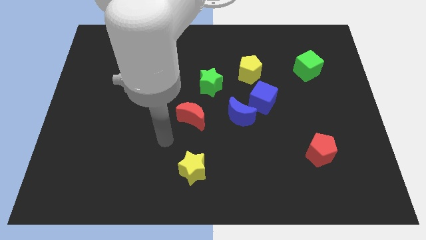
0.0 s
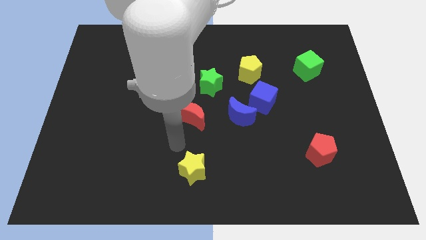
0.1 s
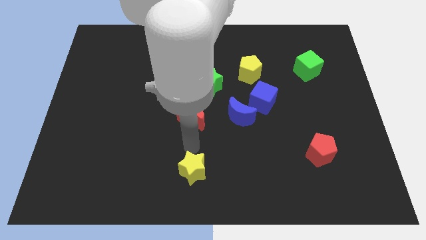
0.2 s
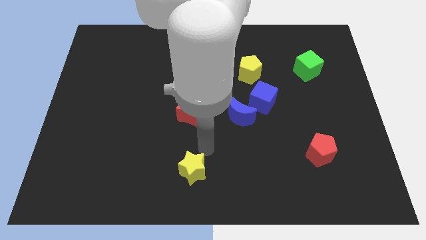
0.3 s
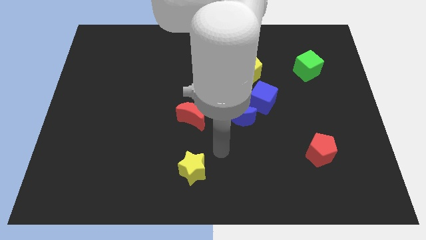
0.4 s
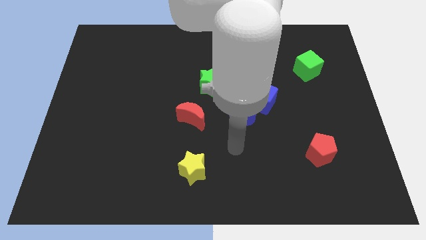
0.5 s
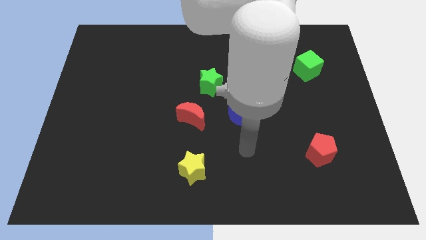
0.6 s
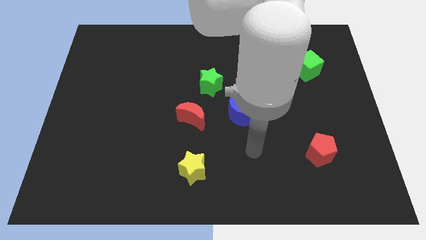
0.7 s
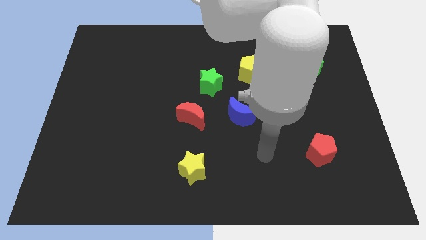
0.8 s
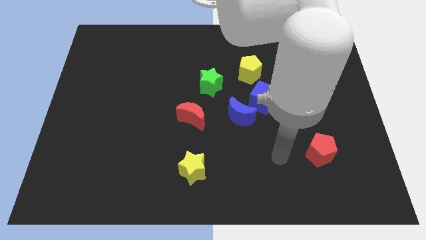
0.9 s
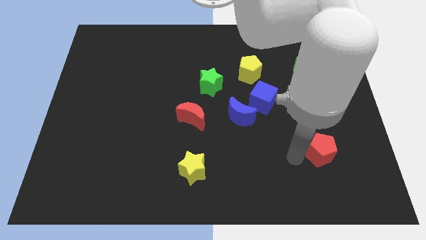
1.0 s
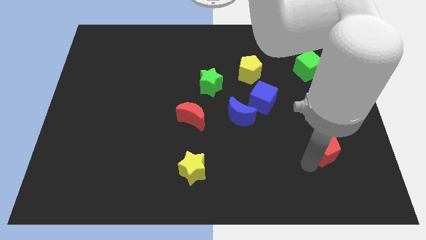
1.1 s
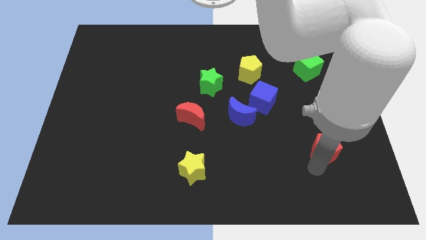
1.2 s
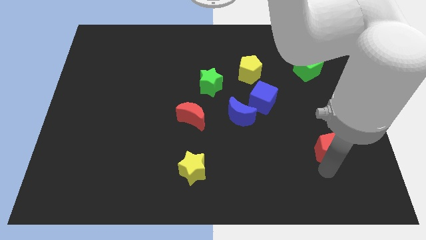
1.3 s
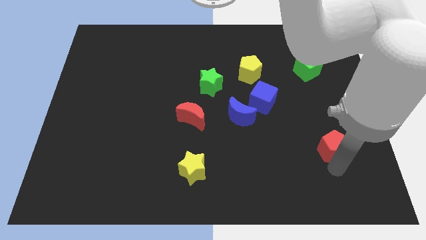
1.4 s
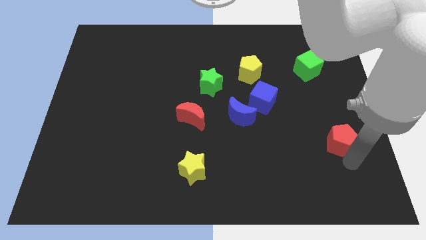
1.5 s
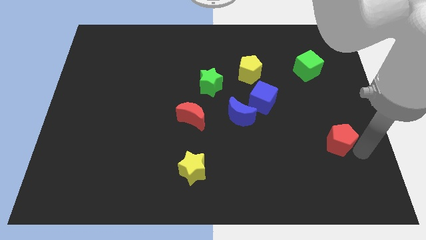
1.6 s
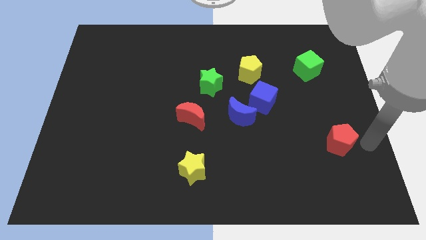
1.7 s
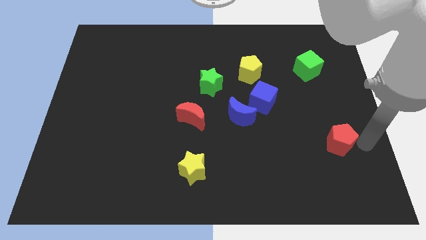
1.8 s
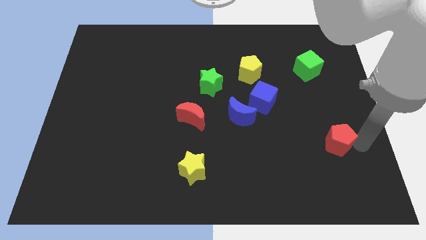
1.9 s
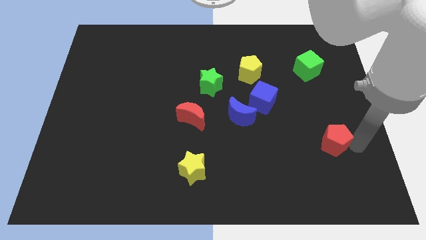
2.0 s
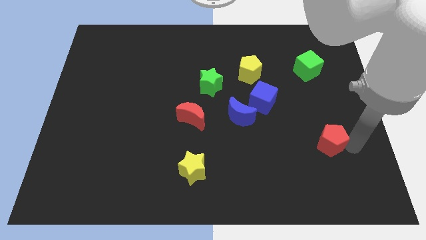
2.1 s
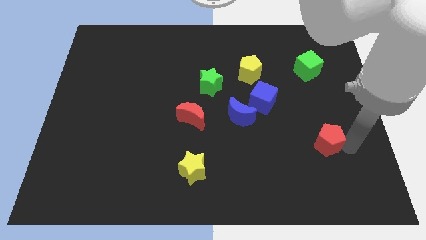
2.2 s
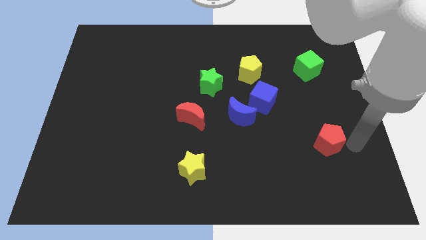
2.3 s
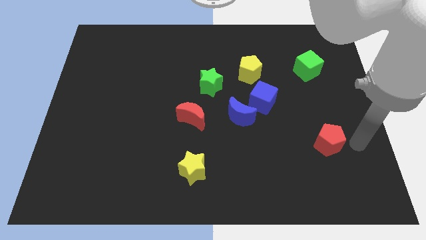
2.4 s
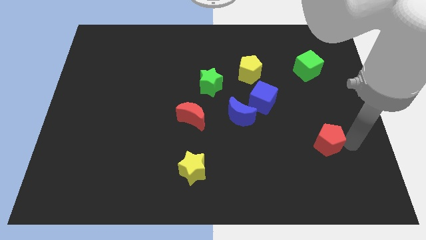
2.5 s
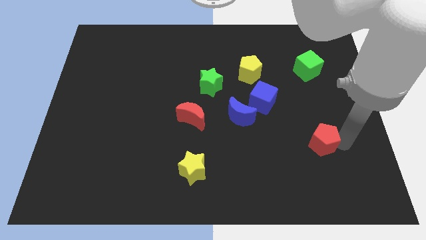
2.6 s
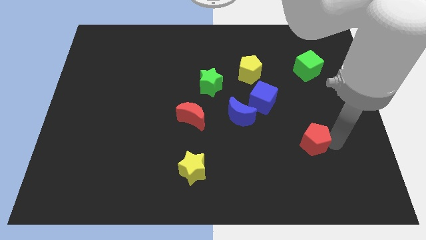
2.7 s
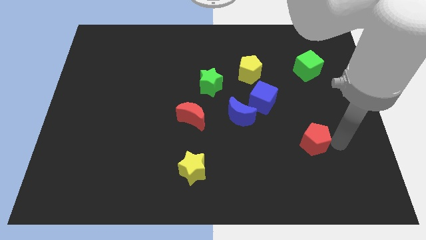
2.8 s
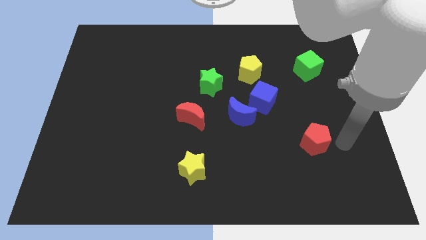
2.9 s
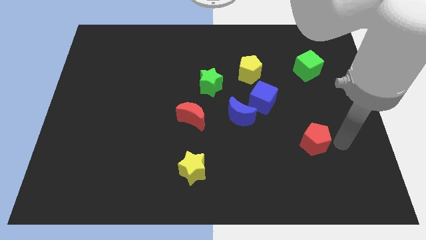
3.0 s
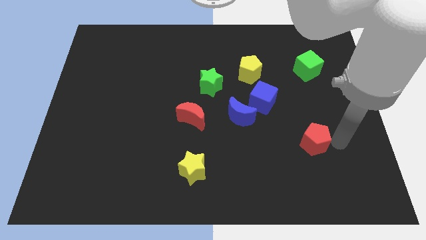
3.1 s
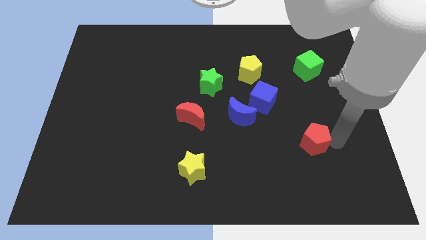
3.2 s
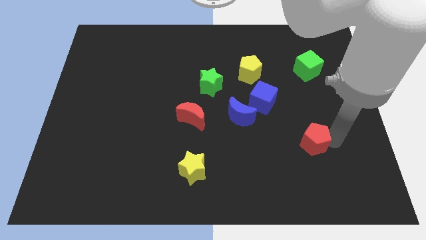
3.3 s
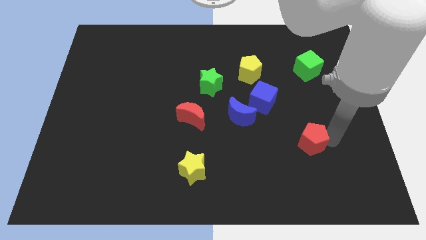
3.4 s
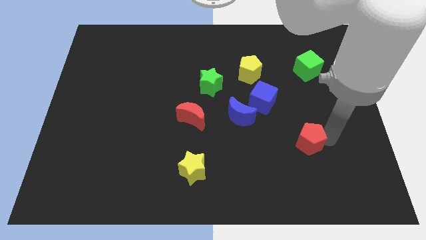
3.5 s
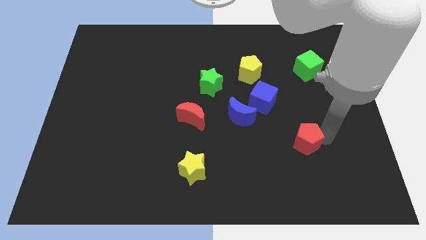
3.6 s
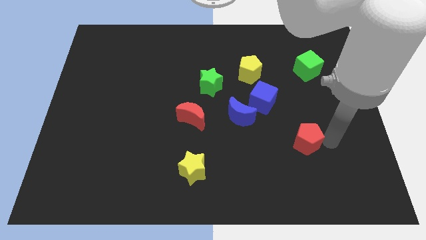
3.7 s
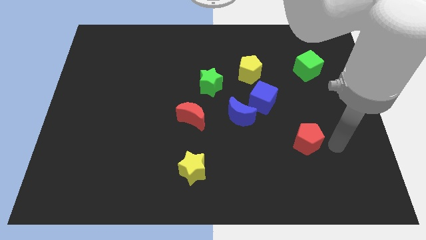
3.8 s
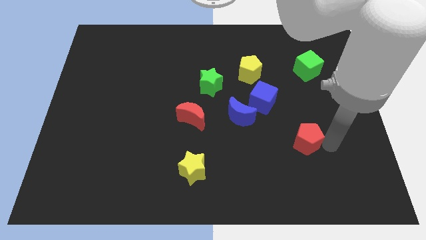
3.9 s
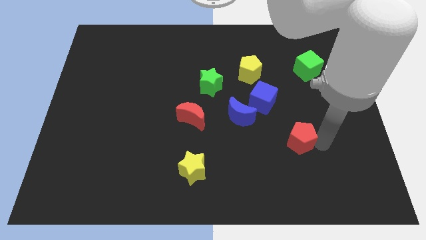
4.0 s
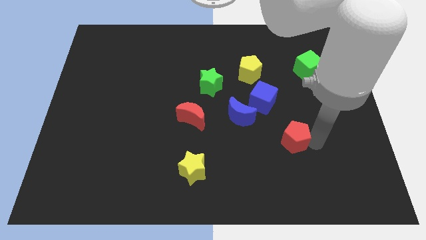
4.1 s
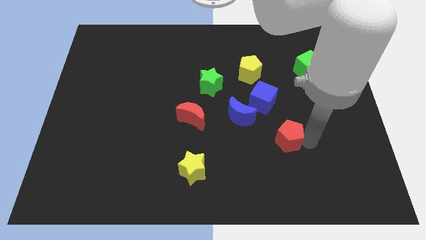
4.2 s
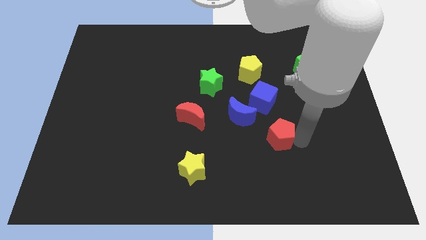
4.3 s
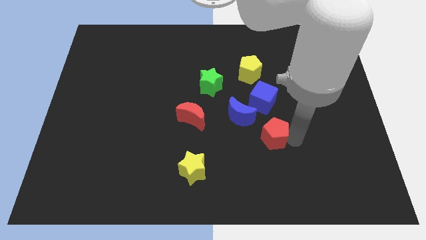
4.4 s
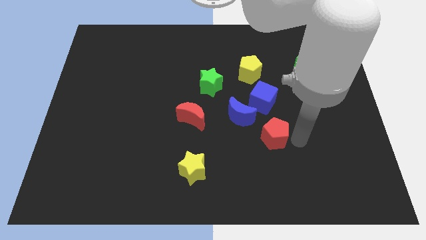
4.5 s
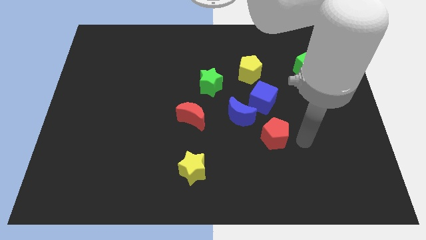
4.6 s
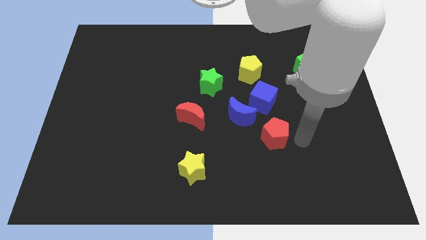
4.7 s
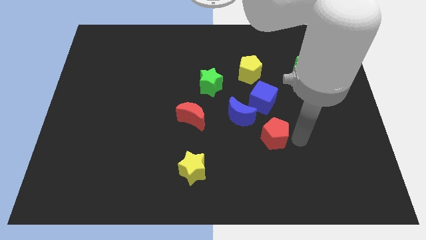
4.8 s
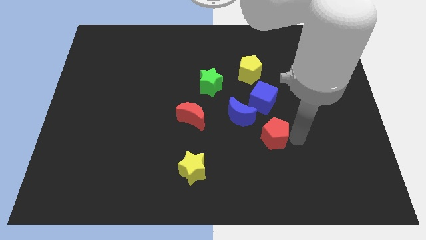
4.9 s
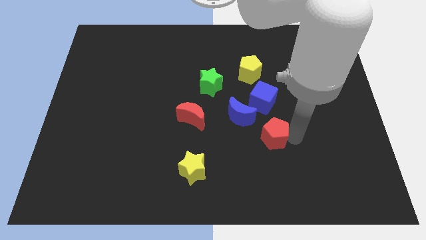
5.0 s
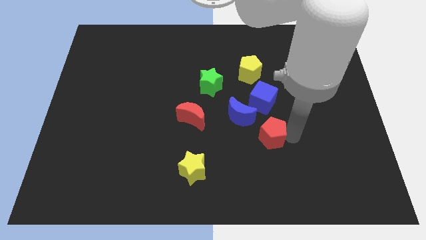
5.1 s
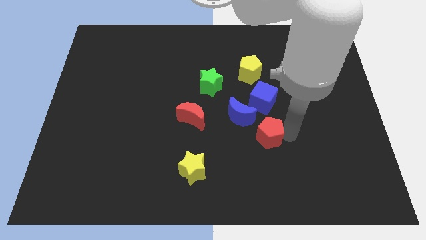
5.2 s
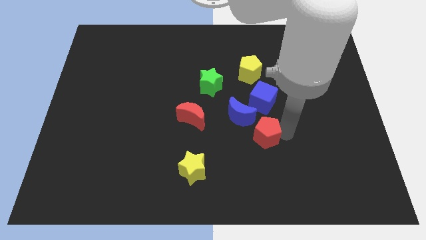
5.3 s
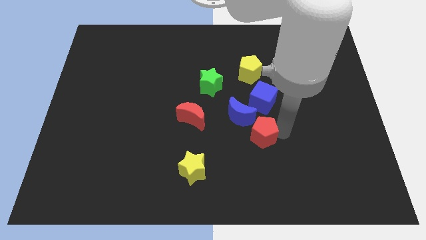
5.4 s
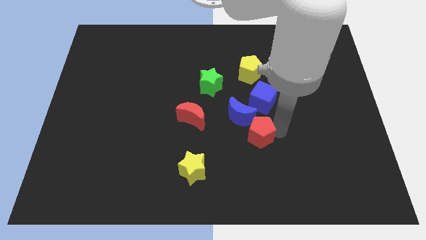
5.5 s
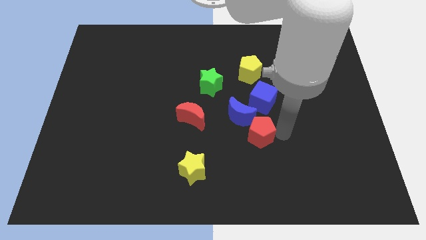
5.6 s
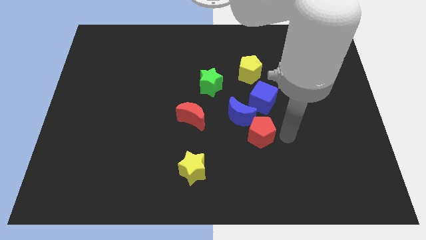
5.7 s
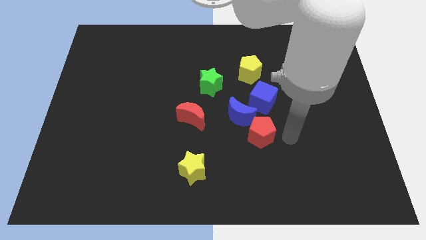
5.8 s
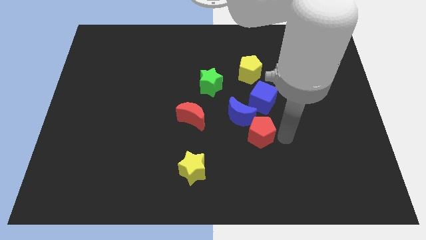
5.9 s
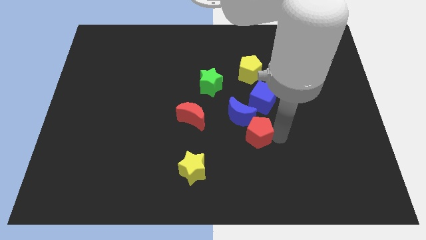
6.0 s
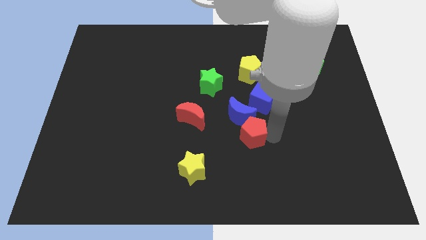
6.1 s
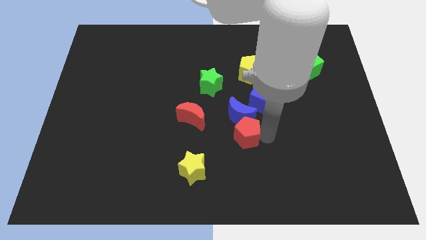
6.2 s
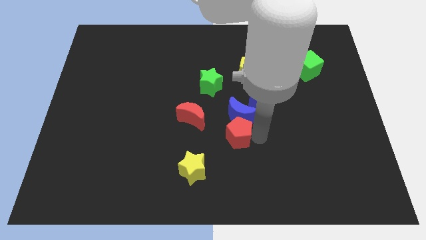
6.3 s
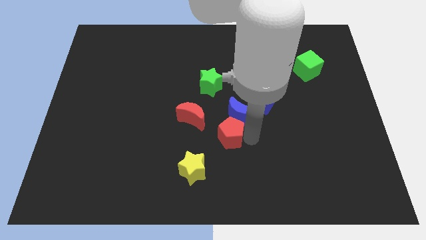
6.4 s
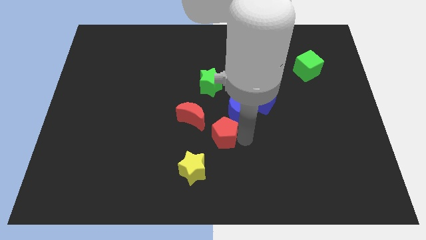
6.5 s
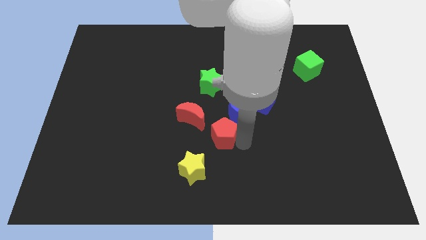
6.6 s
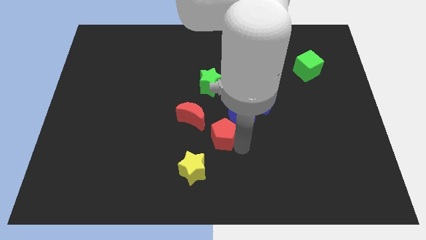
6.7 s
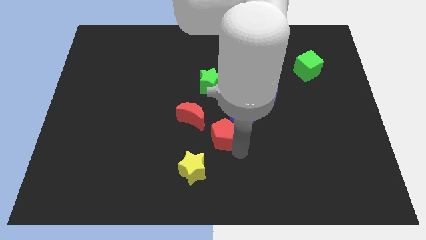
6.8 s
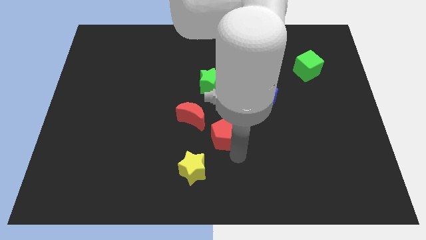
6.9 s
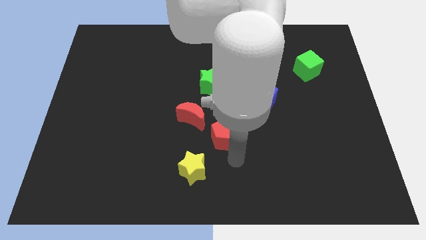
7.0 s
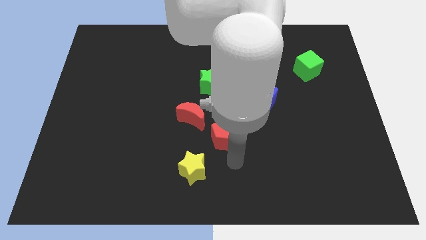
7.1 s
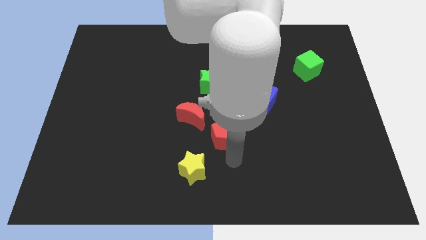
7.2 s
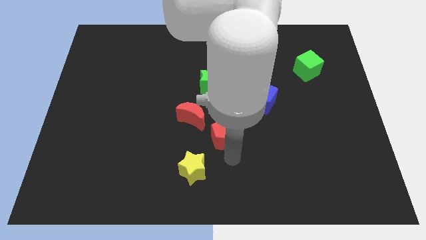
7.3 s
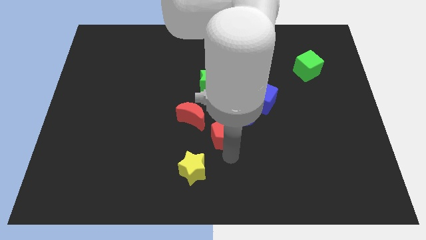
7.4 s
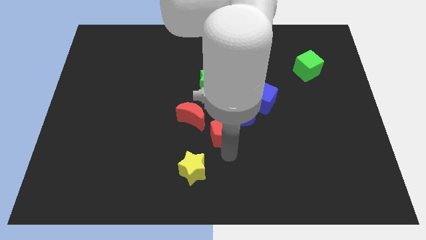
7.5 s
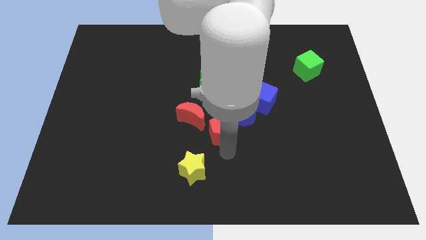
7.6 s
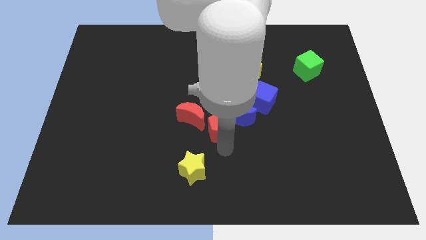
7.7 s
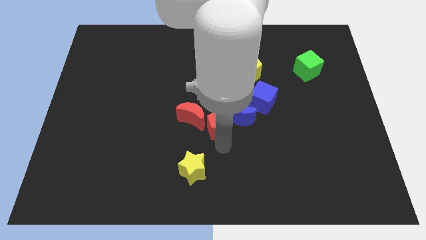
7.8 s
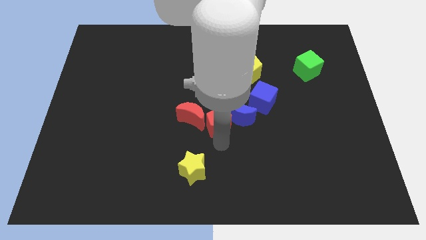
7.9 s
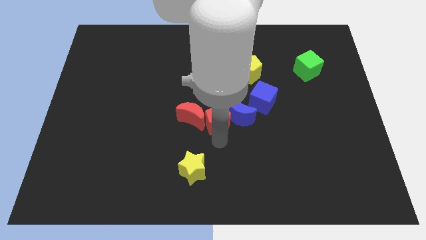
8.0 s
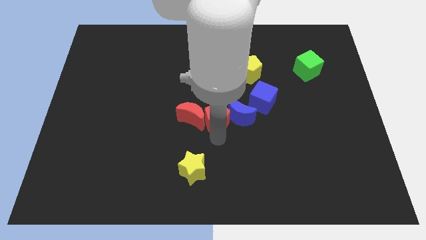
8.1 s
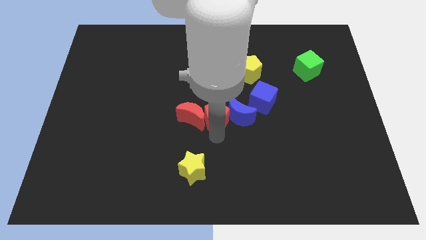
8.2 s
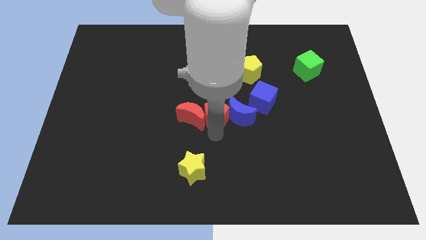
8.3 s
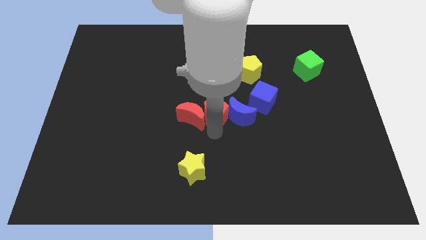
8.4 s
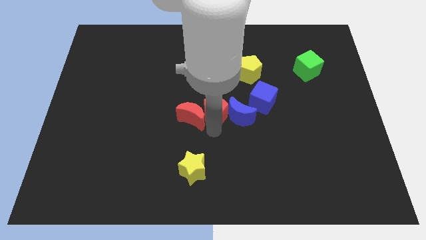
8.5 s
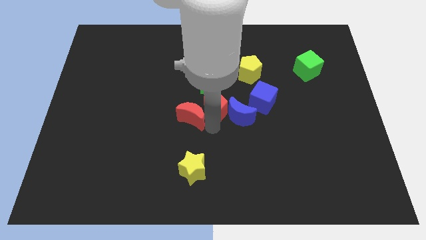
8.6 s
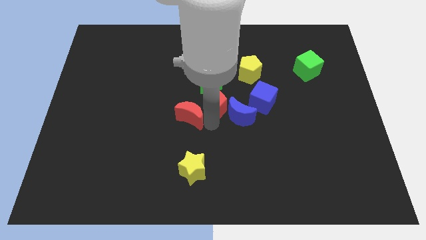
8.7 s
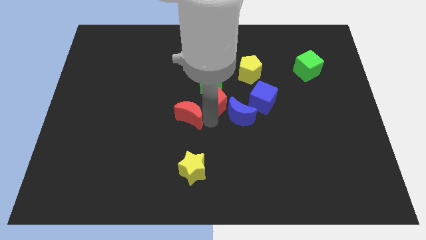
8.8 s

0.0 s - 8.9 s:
push the red pentagon next to the green star
